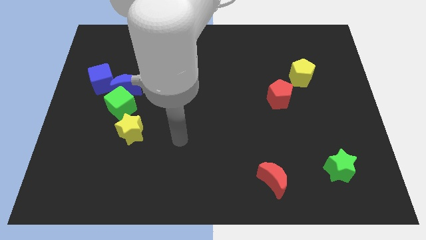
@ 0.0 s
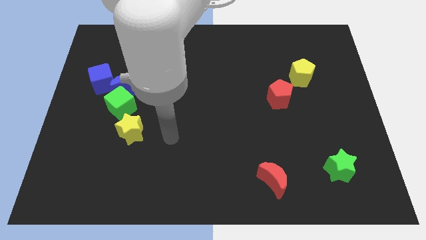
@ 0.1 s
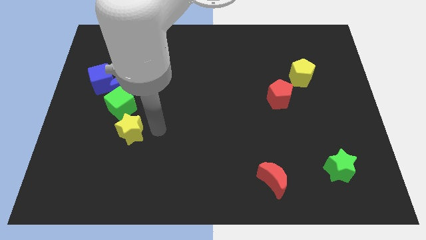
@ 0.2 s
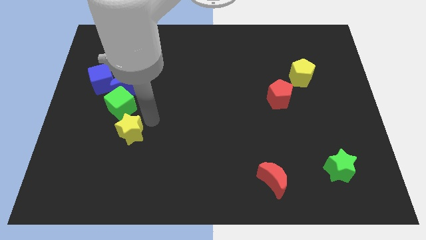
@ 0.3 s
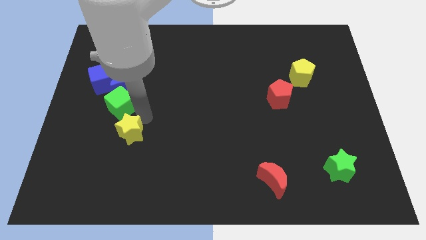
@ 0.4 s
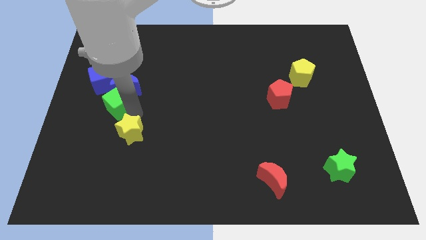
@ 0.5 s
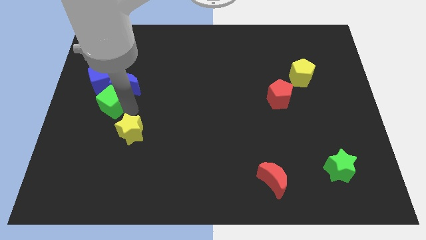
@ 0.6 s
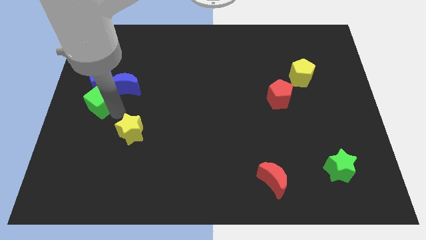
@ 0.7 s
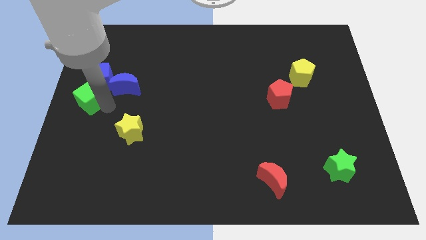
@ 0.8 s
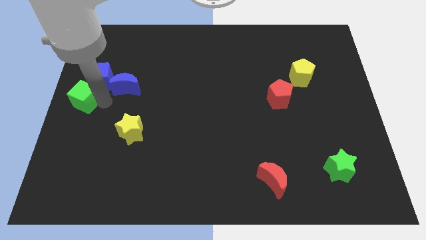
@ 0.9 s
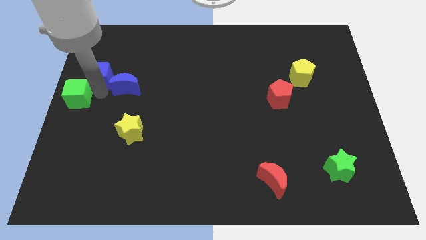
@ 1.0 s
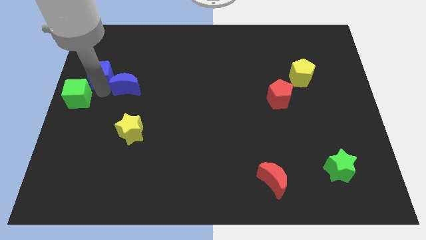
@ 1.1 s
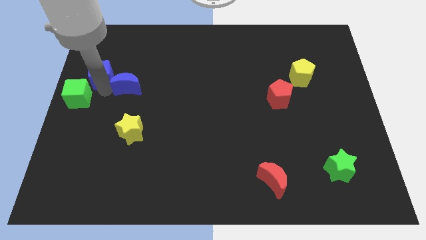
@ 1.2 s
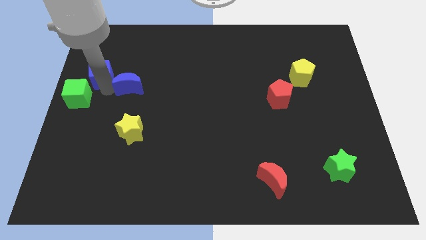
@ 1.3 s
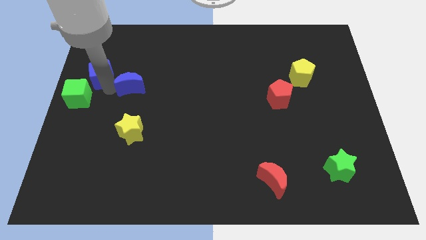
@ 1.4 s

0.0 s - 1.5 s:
separate the blue moon from the green cube and blue cube

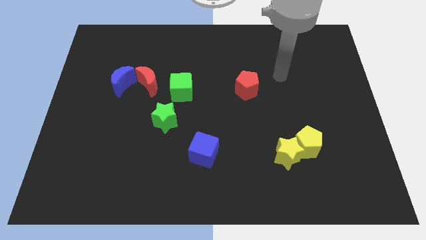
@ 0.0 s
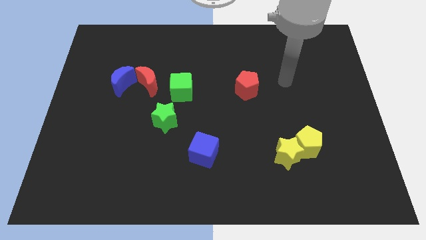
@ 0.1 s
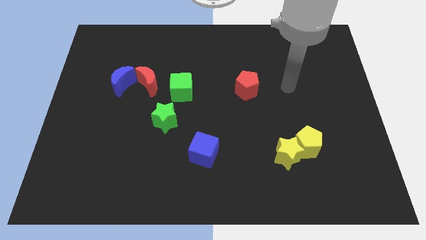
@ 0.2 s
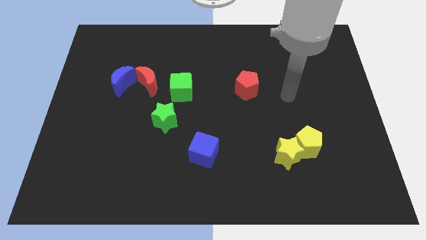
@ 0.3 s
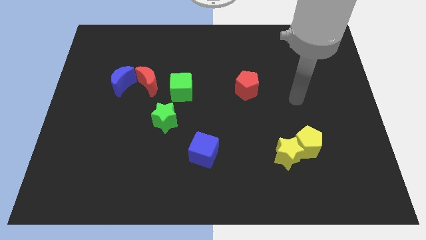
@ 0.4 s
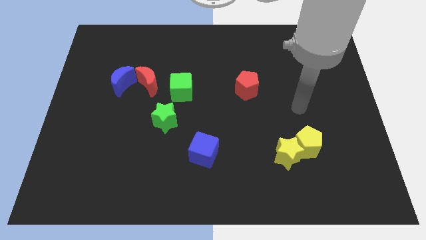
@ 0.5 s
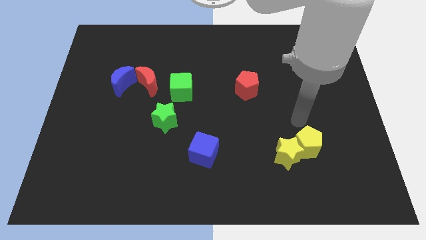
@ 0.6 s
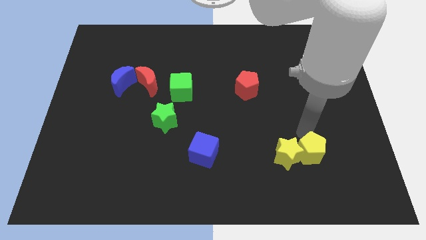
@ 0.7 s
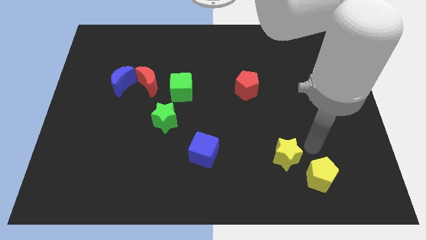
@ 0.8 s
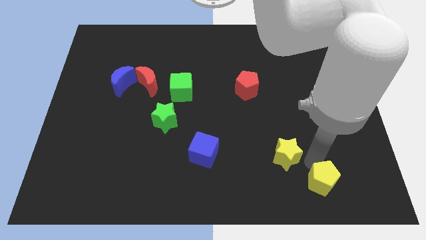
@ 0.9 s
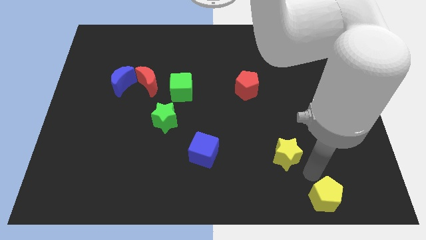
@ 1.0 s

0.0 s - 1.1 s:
move the yellow star away from the yellow pentagon

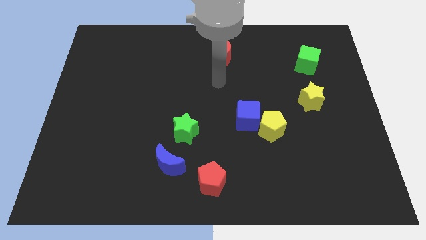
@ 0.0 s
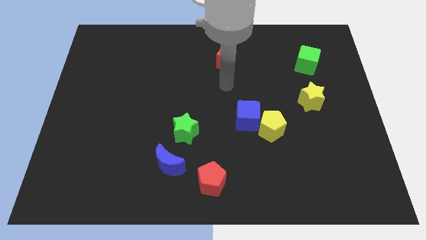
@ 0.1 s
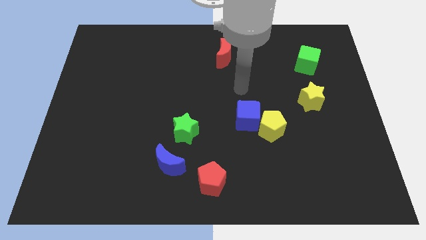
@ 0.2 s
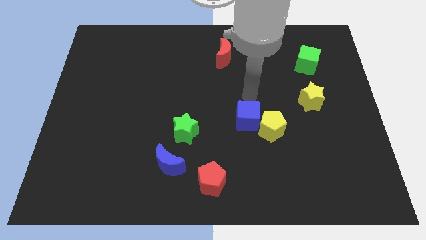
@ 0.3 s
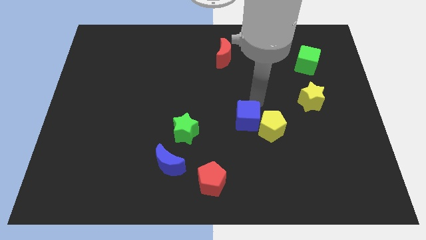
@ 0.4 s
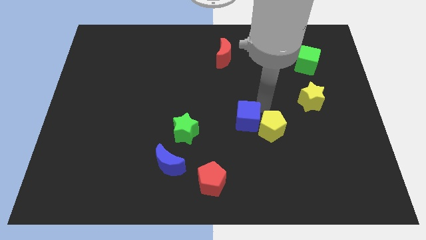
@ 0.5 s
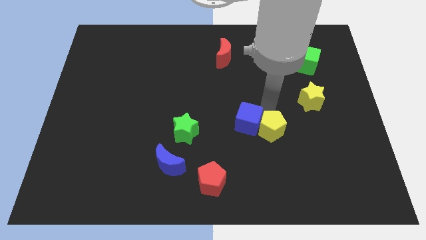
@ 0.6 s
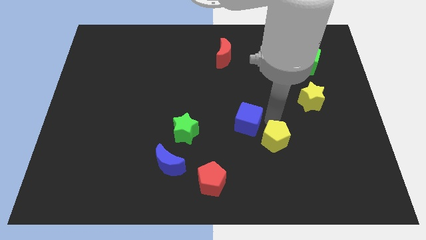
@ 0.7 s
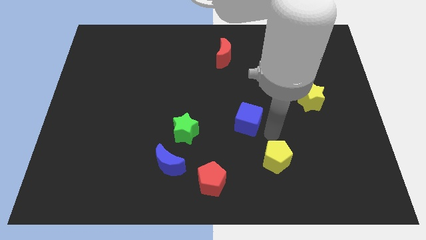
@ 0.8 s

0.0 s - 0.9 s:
pull the blue cube apart from the yellow pentagon

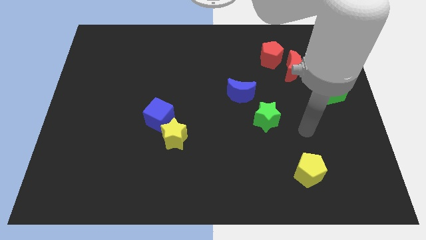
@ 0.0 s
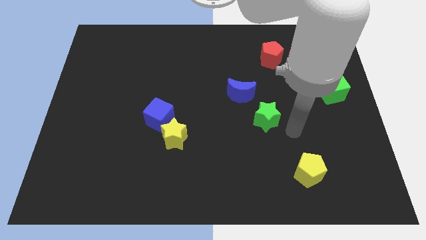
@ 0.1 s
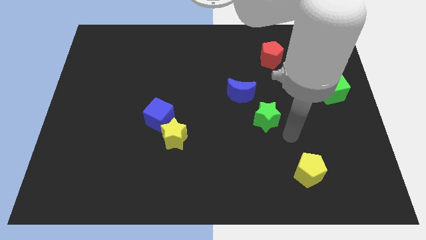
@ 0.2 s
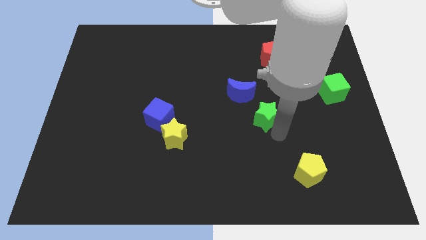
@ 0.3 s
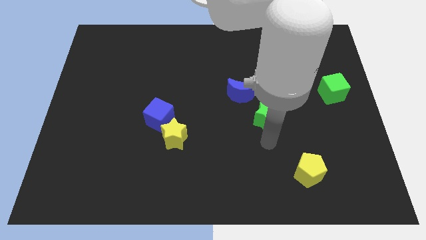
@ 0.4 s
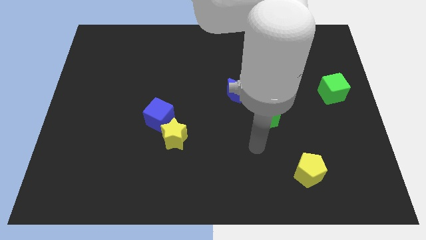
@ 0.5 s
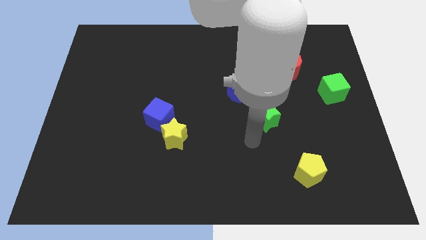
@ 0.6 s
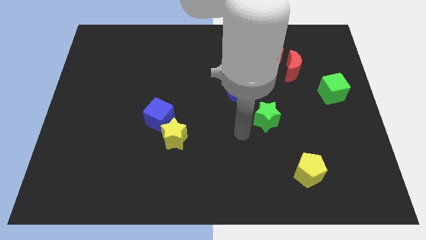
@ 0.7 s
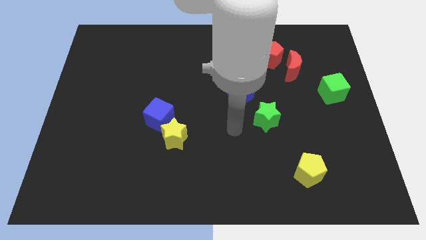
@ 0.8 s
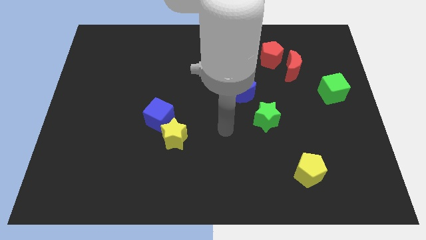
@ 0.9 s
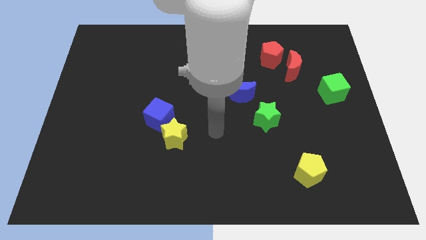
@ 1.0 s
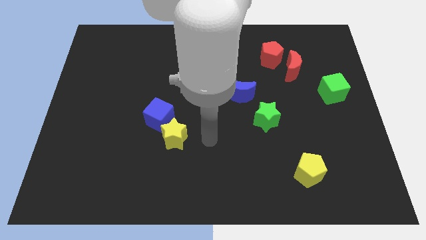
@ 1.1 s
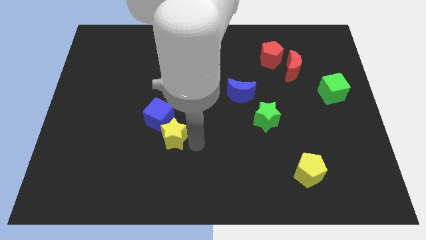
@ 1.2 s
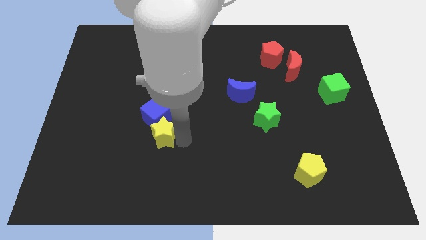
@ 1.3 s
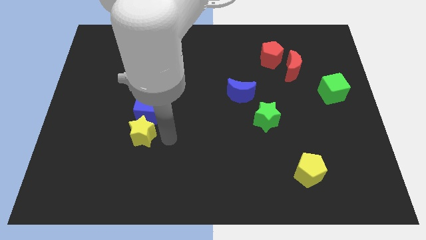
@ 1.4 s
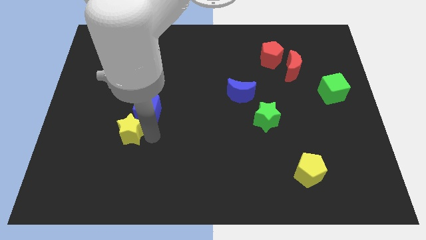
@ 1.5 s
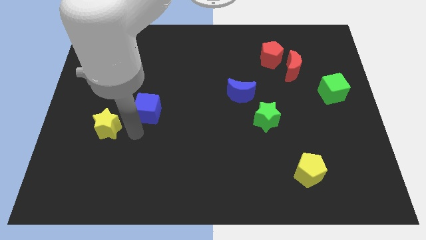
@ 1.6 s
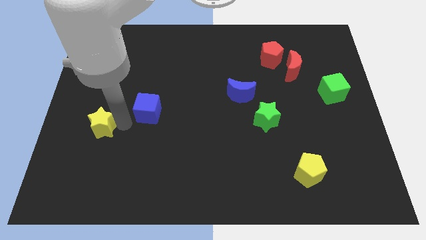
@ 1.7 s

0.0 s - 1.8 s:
separate the blue cube from the yellow star

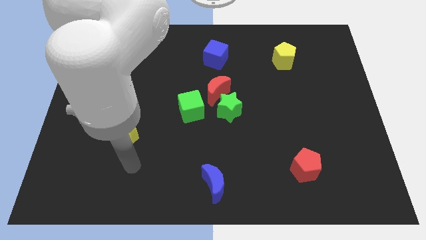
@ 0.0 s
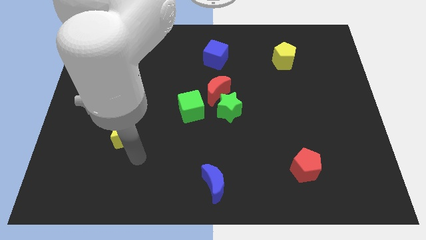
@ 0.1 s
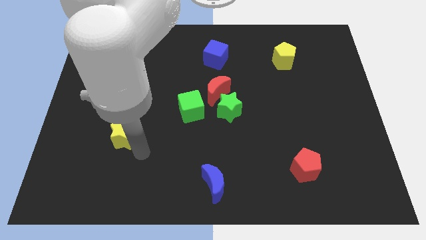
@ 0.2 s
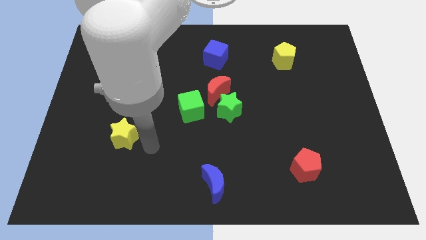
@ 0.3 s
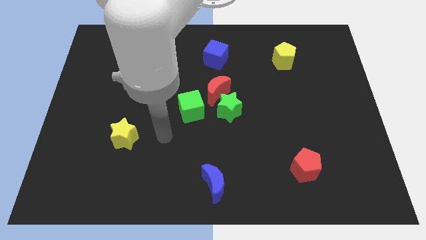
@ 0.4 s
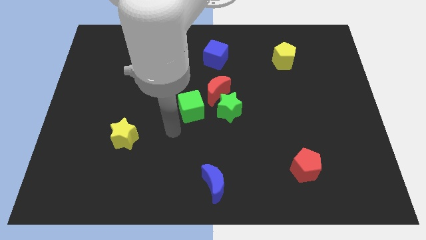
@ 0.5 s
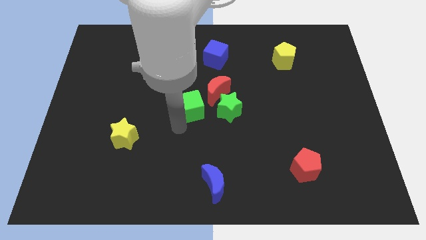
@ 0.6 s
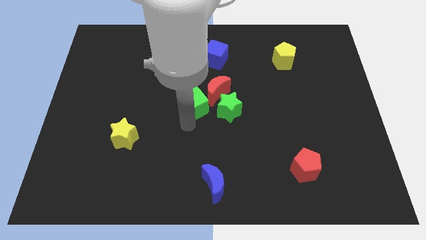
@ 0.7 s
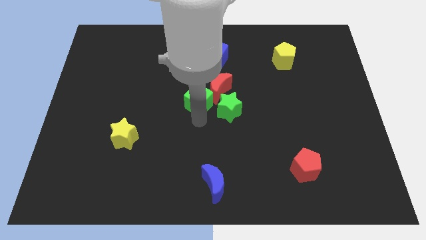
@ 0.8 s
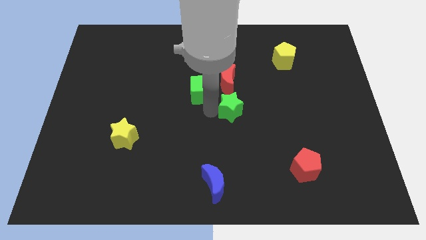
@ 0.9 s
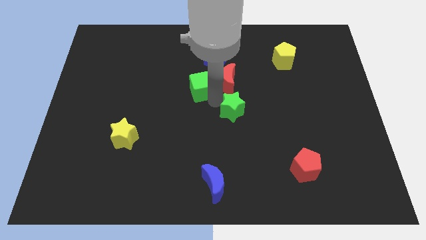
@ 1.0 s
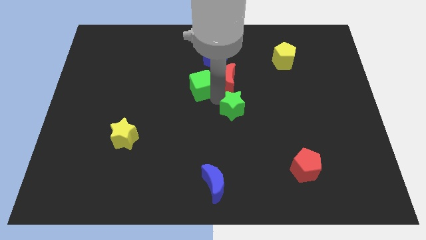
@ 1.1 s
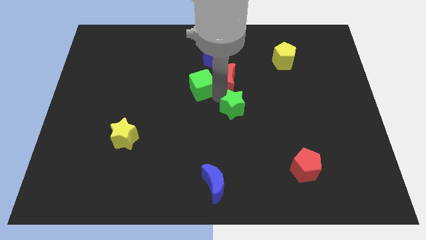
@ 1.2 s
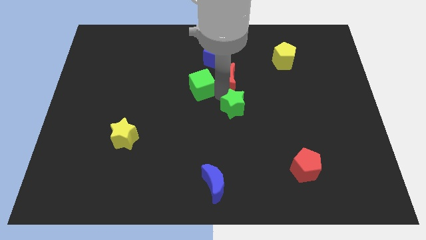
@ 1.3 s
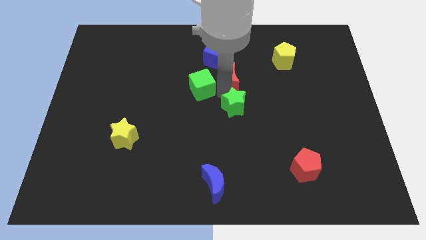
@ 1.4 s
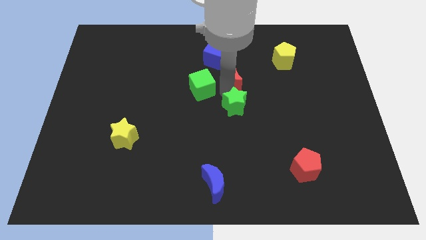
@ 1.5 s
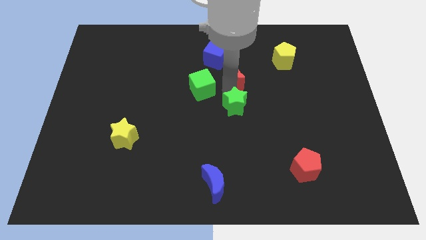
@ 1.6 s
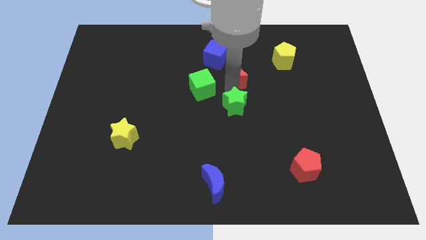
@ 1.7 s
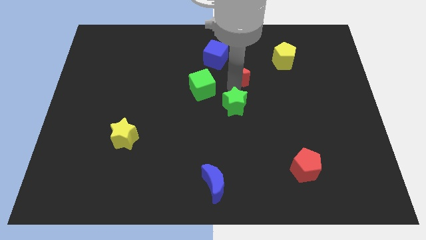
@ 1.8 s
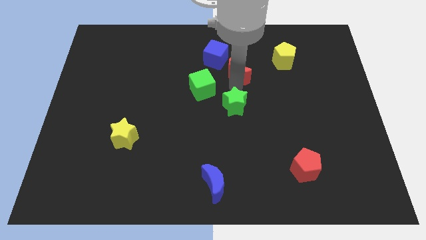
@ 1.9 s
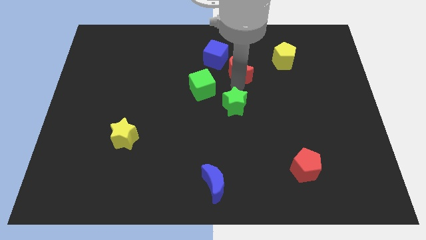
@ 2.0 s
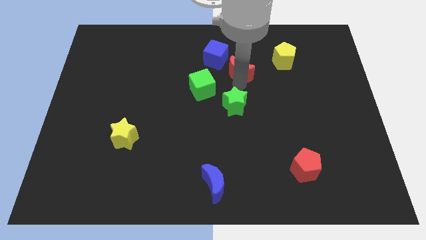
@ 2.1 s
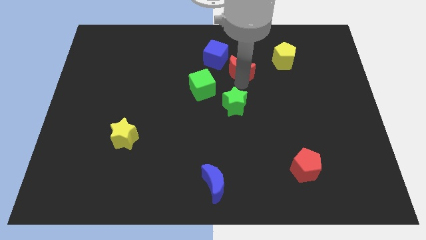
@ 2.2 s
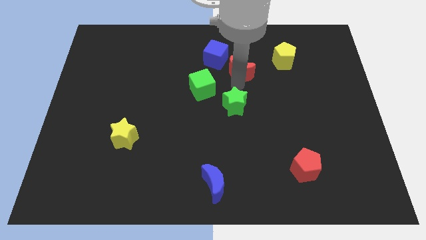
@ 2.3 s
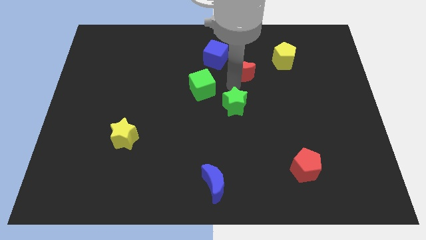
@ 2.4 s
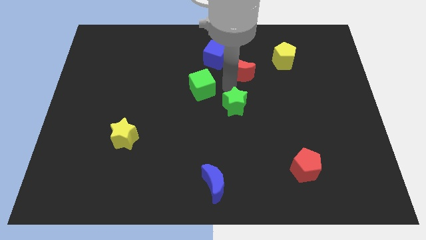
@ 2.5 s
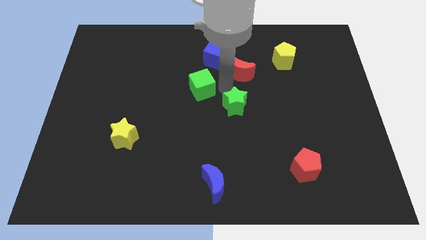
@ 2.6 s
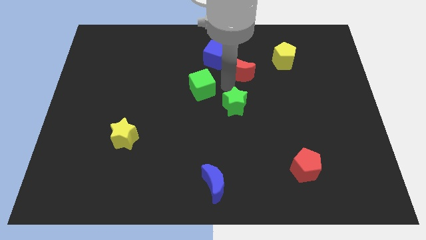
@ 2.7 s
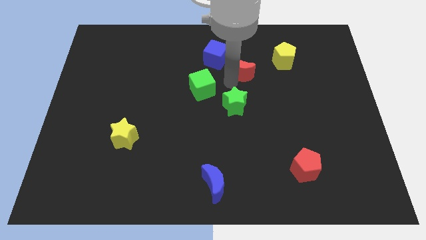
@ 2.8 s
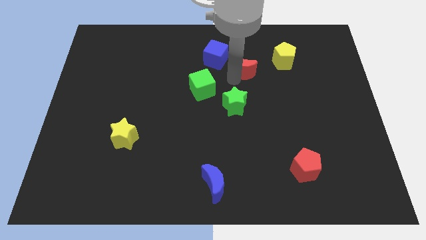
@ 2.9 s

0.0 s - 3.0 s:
separate the red moon from the green star and green cube

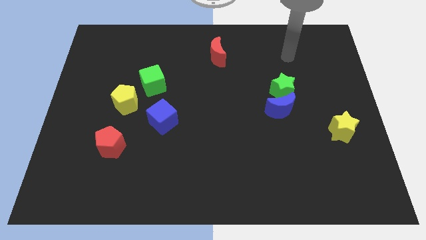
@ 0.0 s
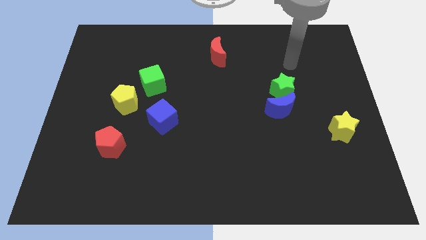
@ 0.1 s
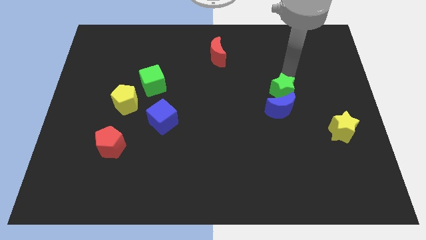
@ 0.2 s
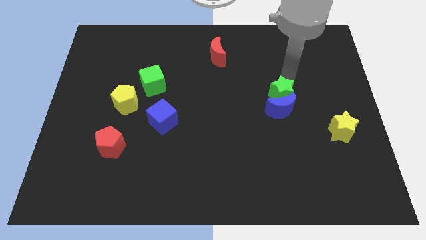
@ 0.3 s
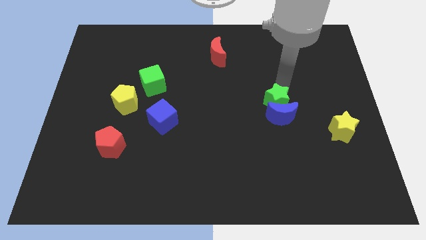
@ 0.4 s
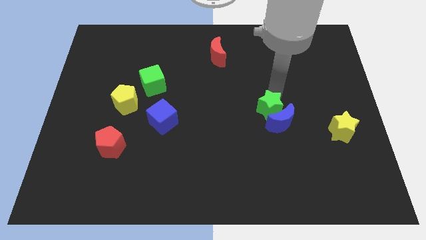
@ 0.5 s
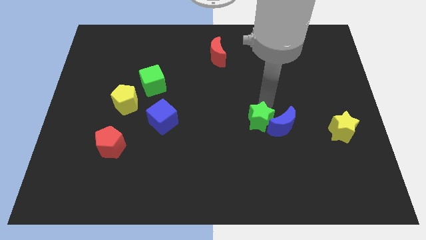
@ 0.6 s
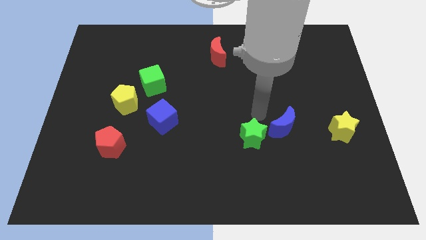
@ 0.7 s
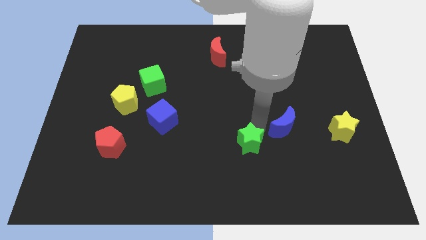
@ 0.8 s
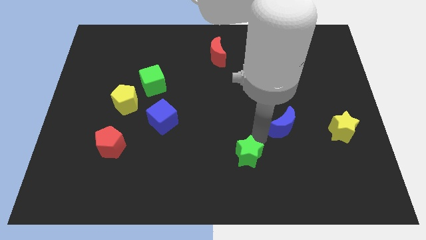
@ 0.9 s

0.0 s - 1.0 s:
move the blue moon away from the green star
